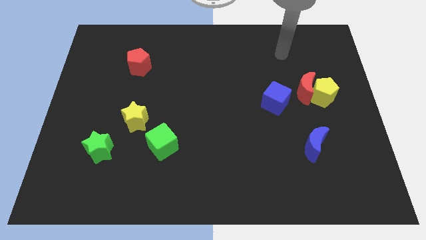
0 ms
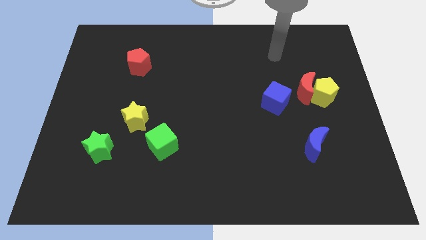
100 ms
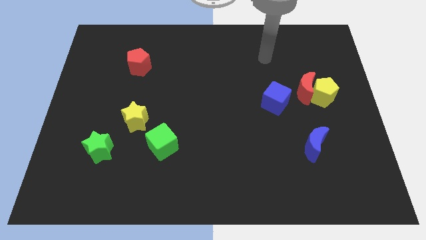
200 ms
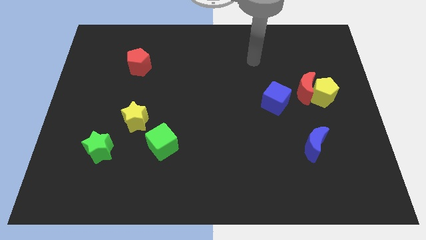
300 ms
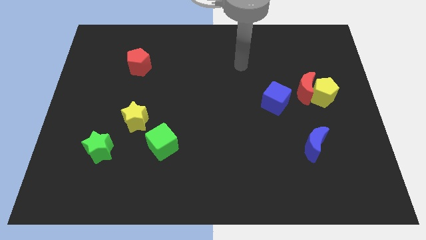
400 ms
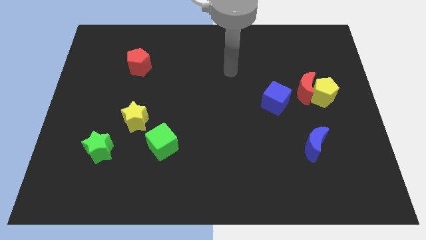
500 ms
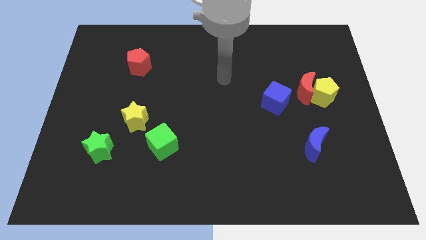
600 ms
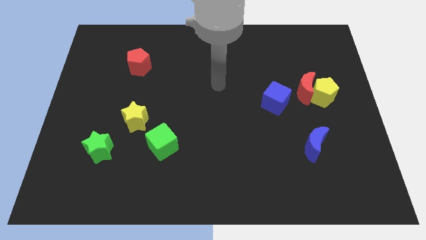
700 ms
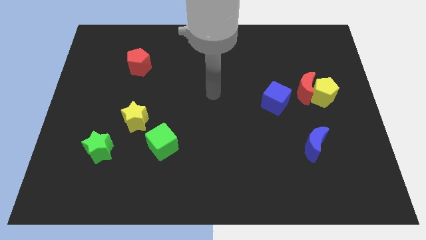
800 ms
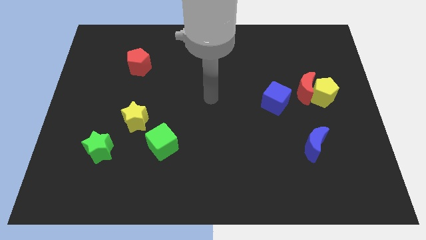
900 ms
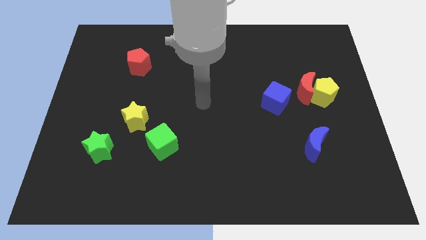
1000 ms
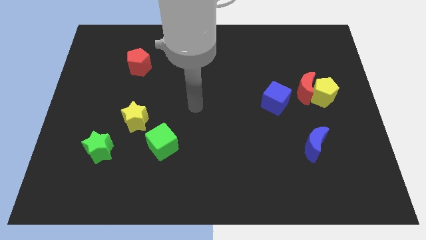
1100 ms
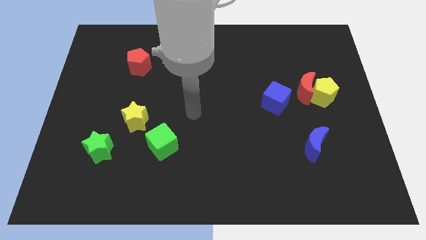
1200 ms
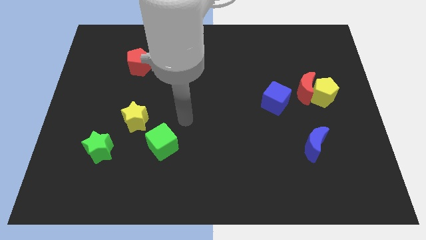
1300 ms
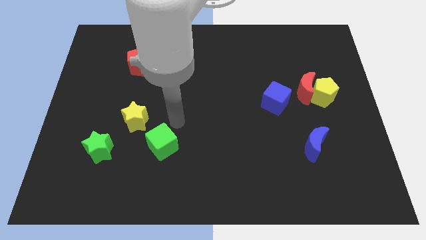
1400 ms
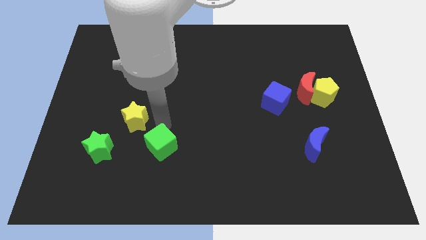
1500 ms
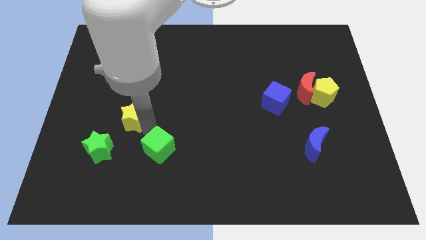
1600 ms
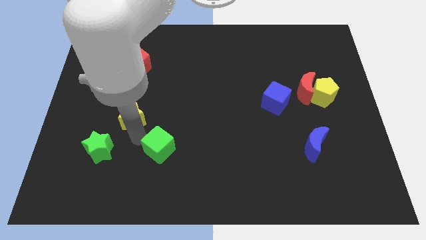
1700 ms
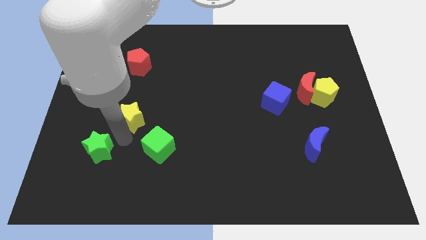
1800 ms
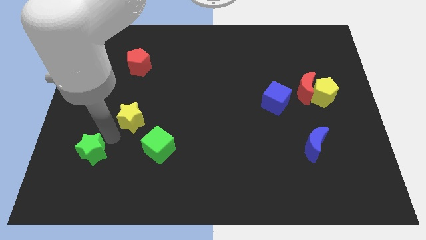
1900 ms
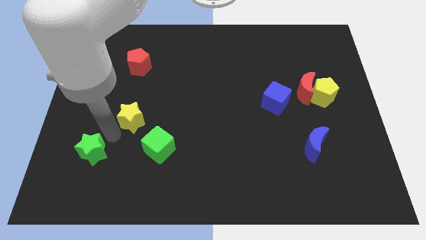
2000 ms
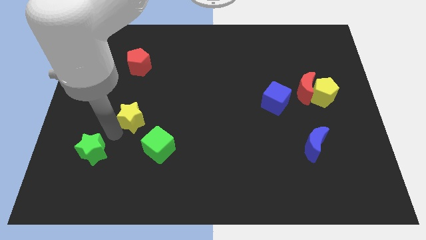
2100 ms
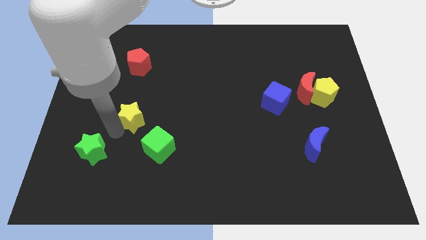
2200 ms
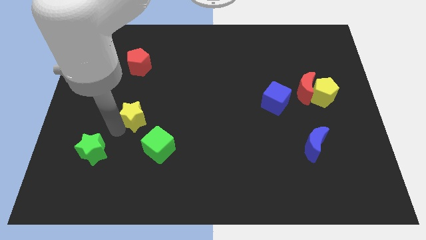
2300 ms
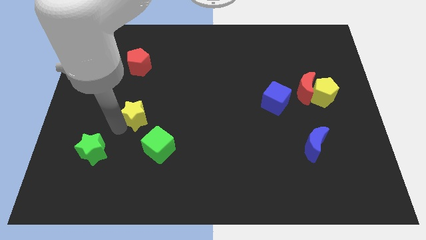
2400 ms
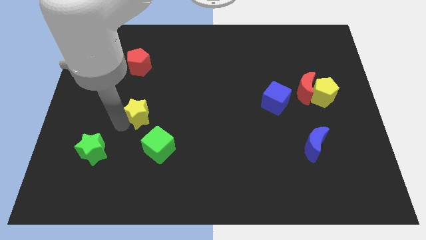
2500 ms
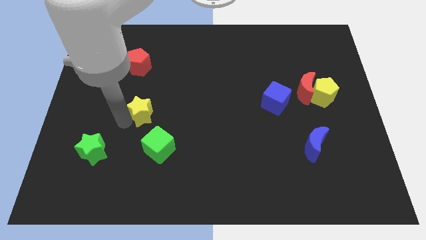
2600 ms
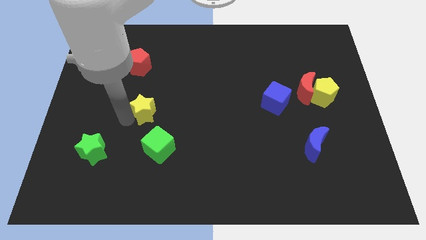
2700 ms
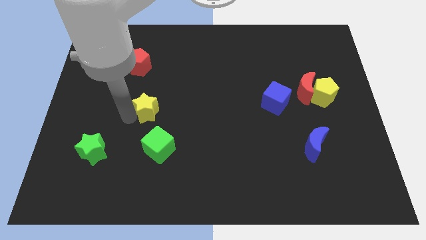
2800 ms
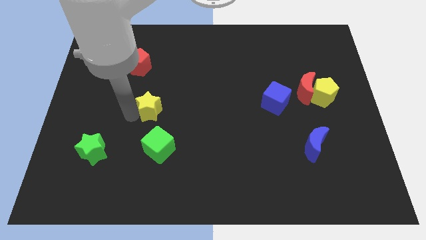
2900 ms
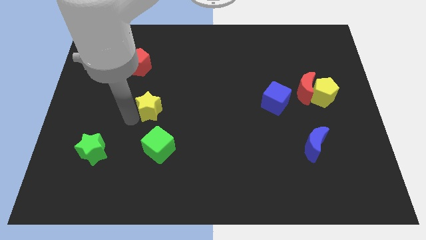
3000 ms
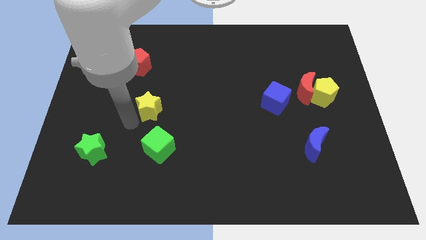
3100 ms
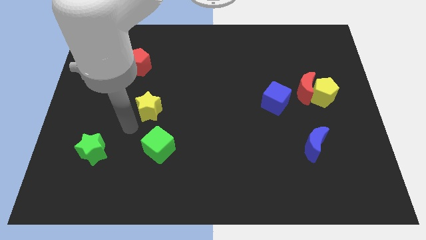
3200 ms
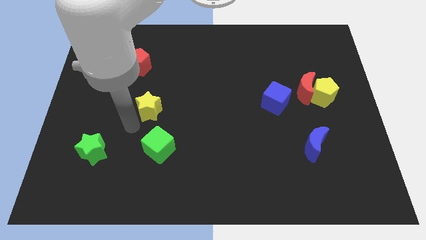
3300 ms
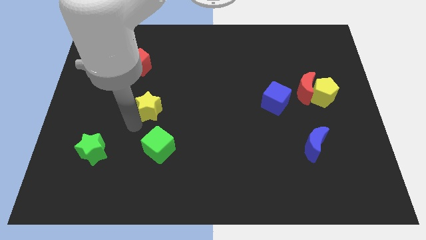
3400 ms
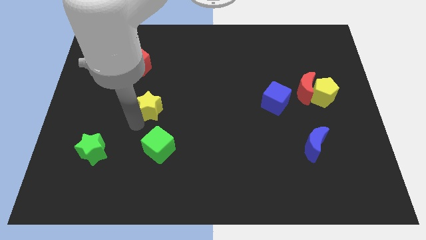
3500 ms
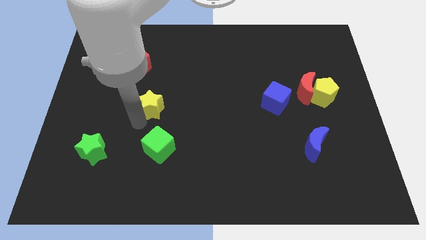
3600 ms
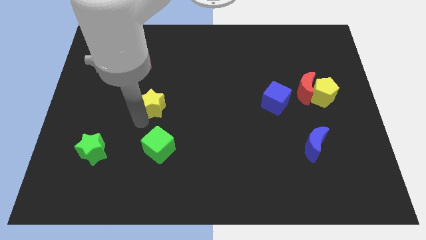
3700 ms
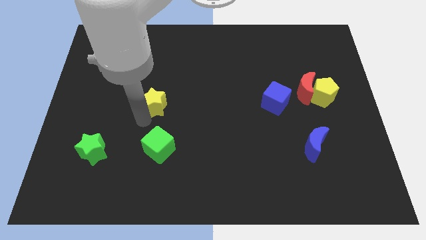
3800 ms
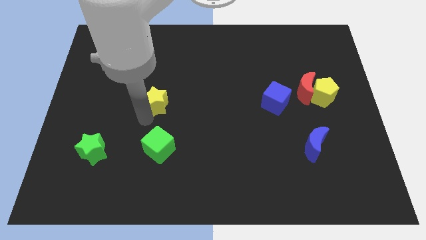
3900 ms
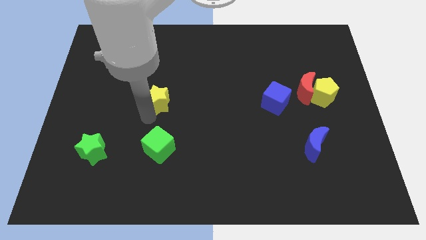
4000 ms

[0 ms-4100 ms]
push the yellow star diagonally up and to the right somewhat

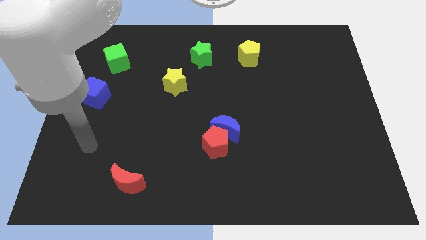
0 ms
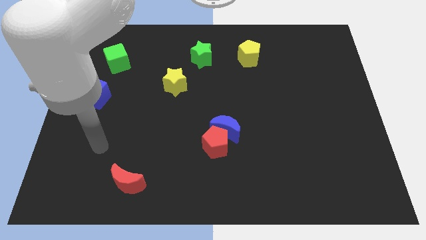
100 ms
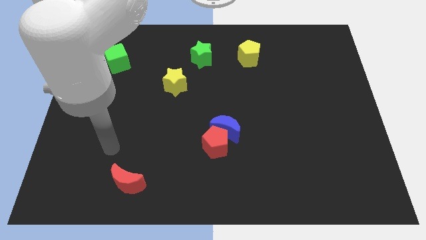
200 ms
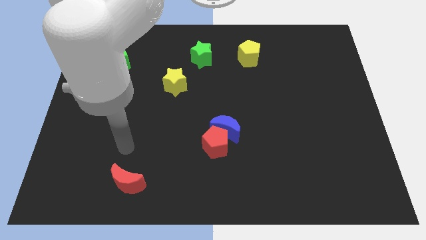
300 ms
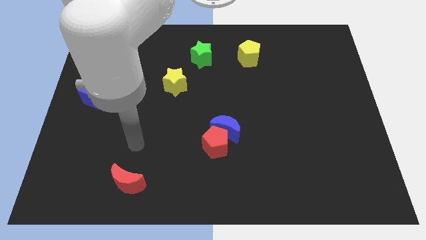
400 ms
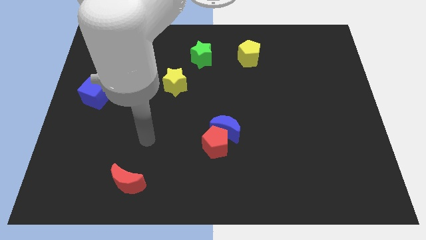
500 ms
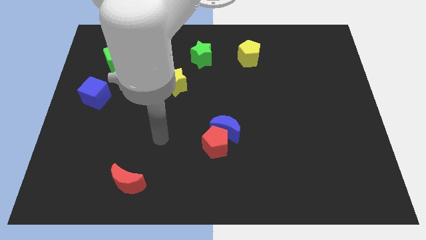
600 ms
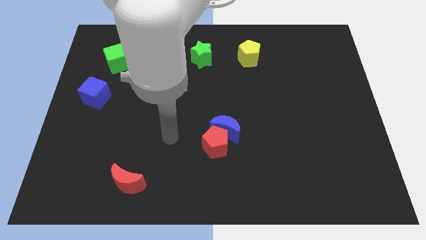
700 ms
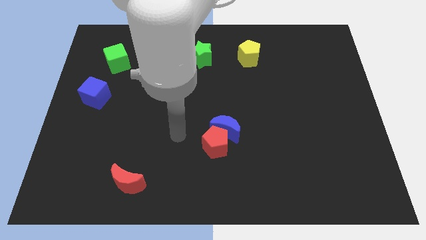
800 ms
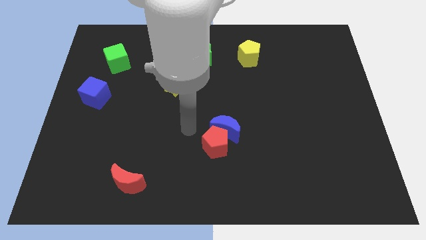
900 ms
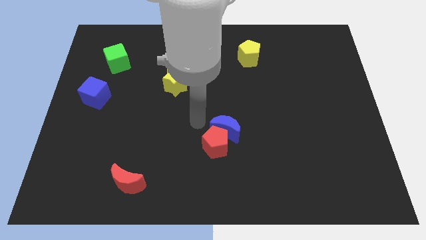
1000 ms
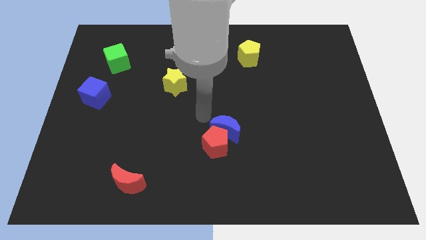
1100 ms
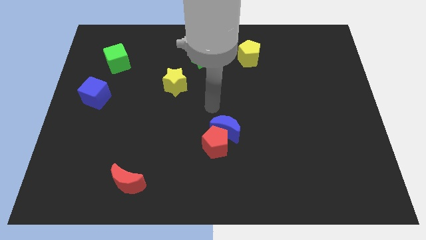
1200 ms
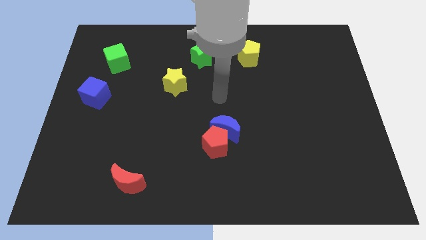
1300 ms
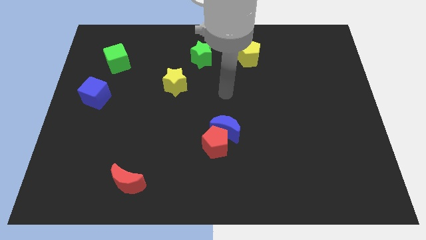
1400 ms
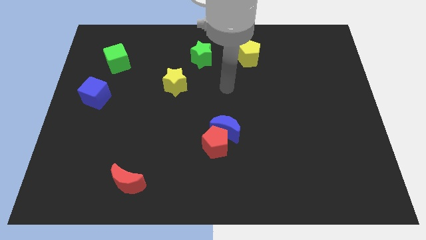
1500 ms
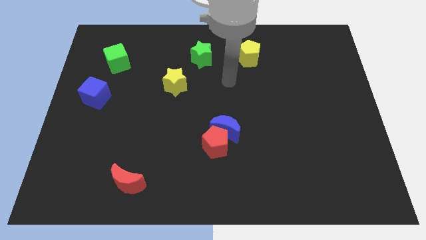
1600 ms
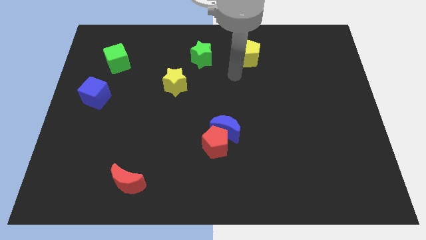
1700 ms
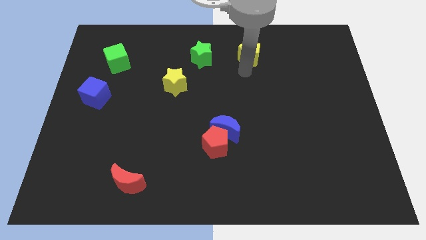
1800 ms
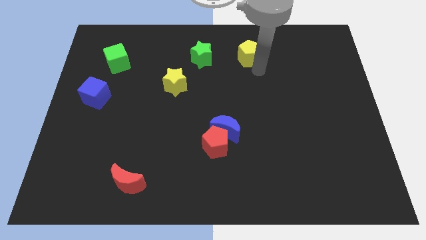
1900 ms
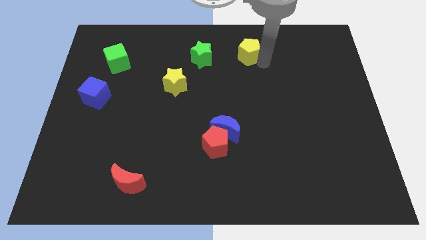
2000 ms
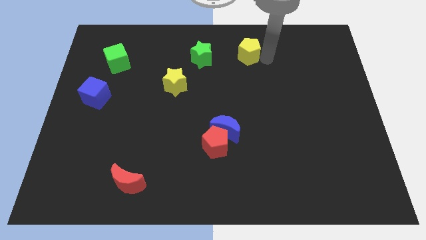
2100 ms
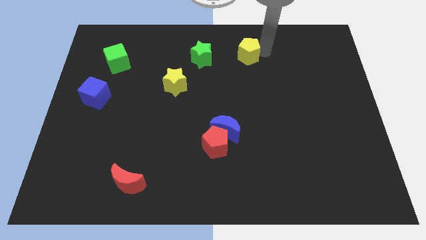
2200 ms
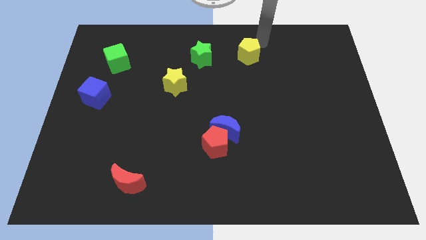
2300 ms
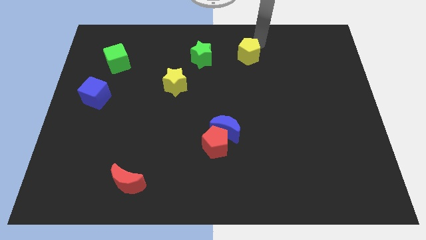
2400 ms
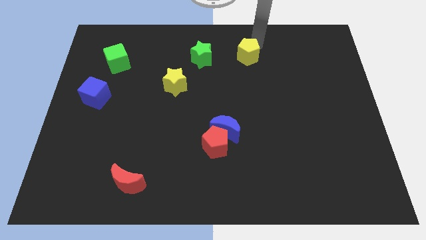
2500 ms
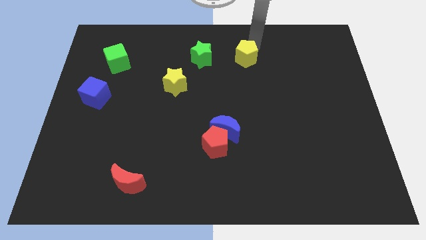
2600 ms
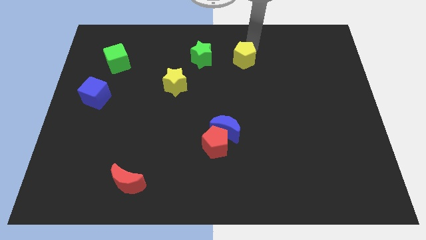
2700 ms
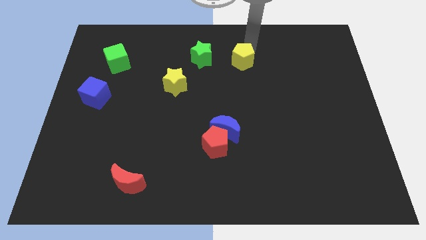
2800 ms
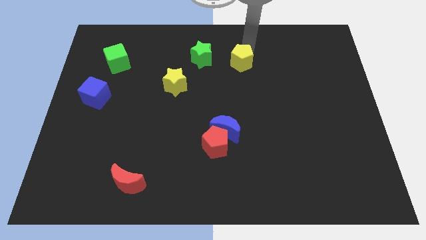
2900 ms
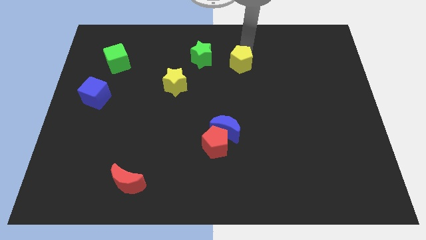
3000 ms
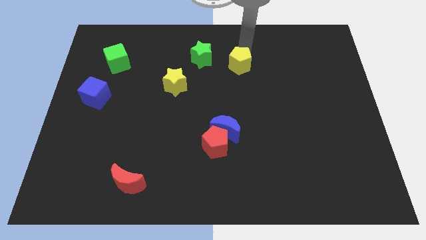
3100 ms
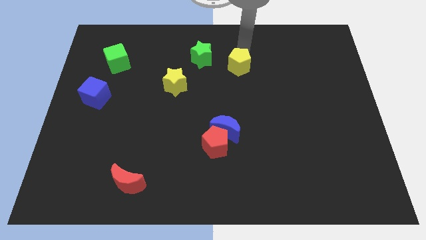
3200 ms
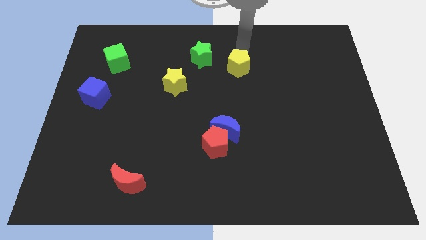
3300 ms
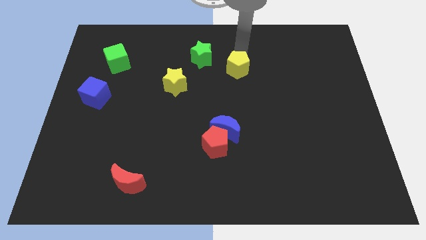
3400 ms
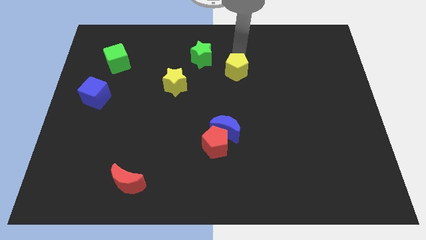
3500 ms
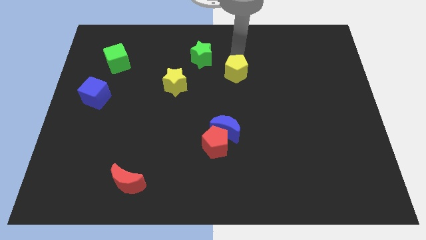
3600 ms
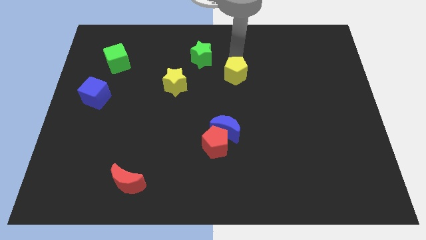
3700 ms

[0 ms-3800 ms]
move the yellow pentagon a little diagonally down and to the left

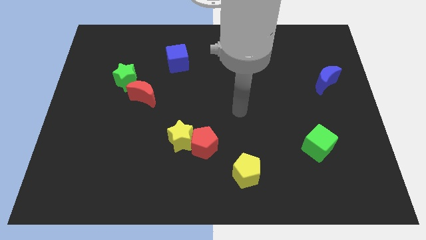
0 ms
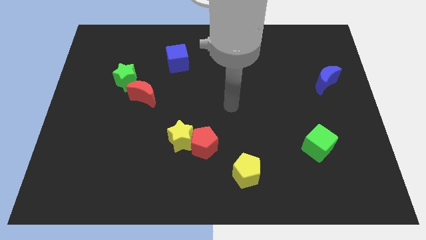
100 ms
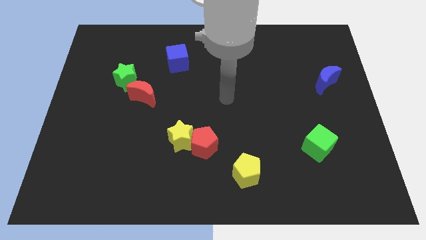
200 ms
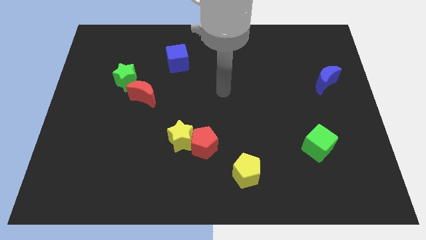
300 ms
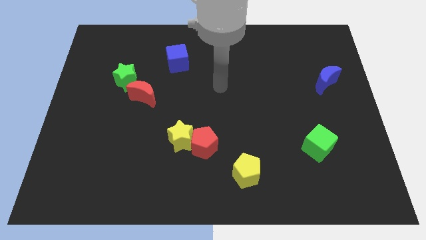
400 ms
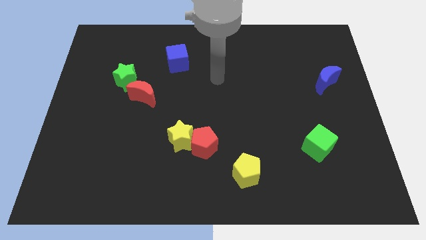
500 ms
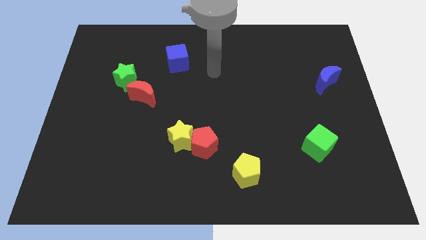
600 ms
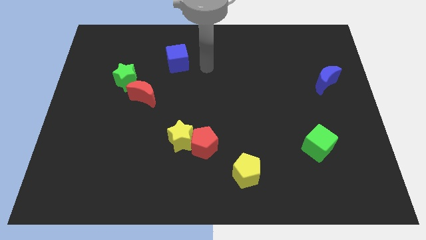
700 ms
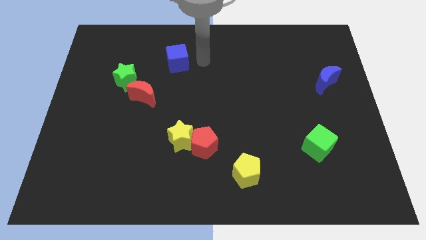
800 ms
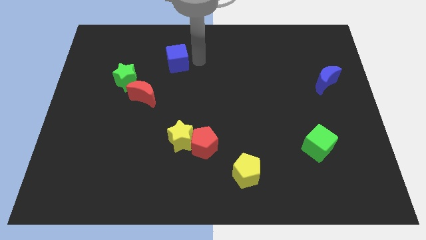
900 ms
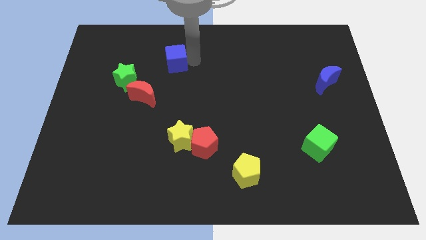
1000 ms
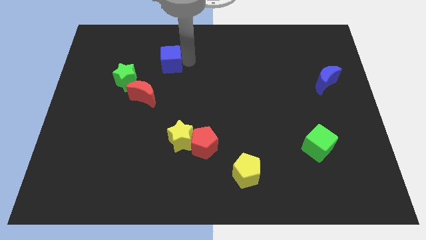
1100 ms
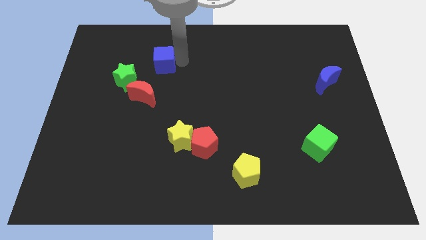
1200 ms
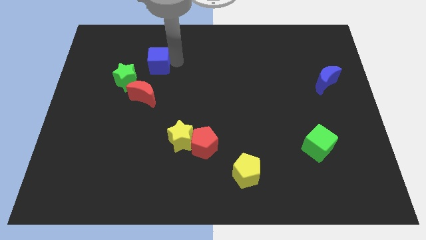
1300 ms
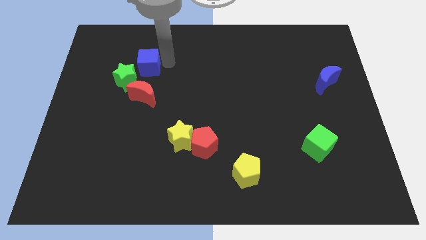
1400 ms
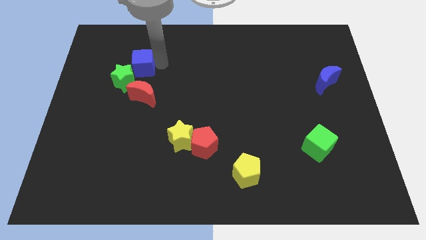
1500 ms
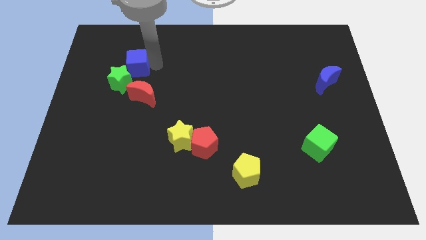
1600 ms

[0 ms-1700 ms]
slightly slide the blue cube downwards and to the left
